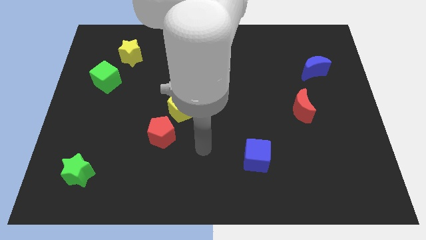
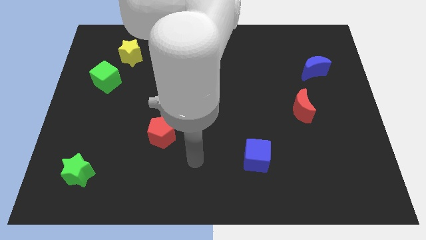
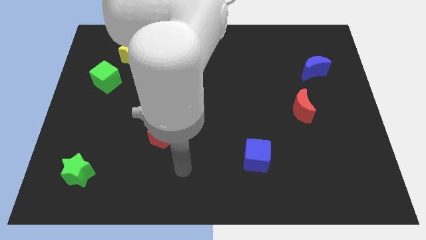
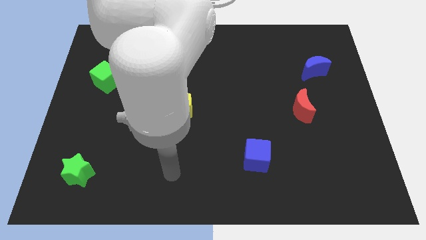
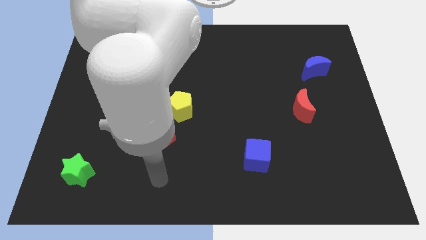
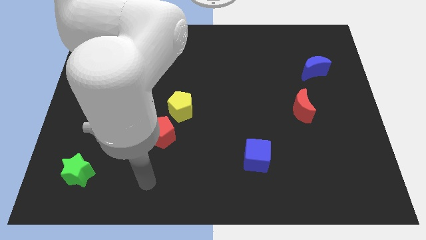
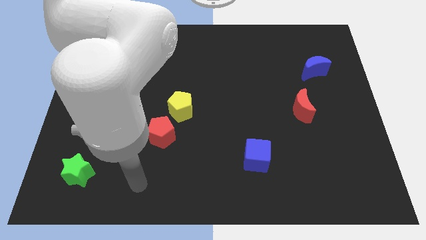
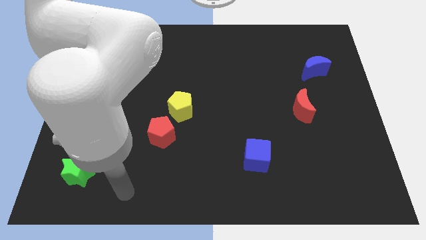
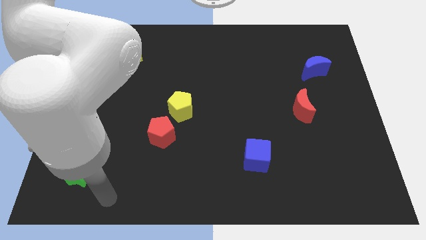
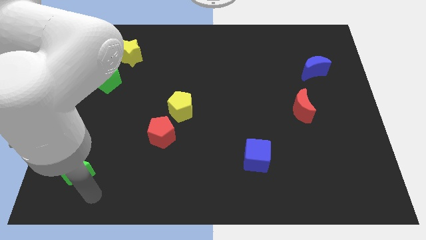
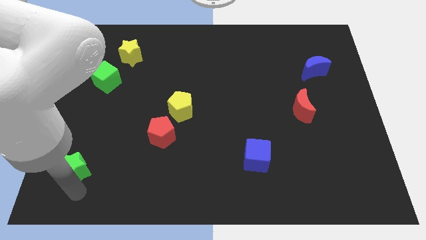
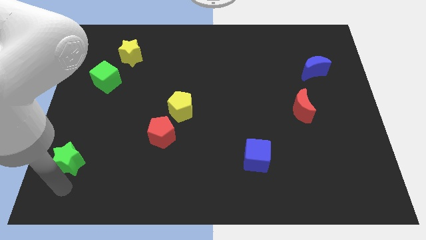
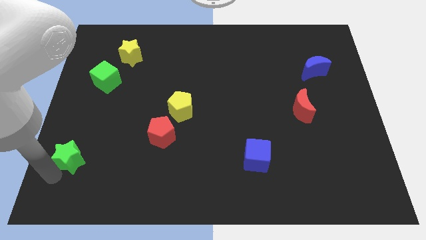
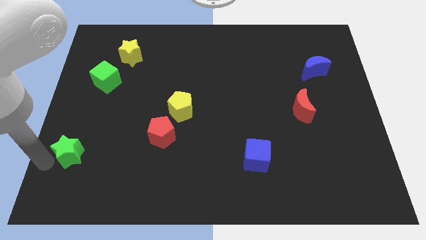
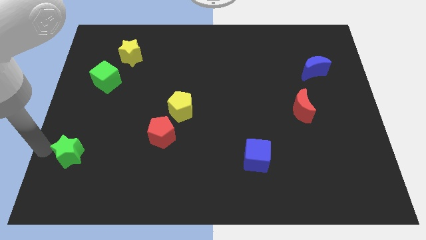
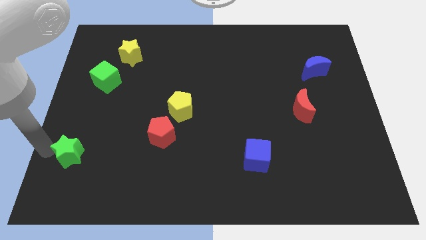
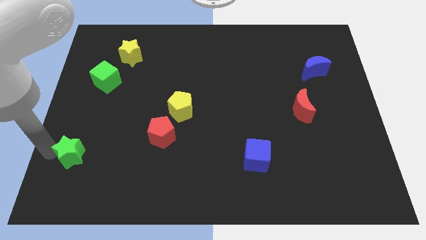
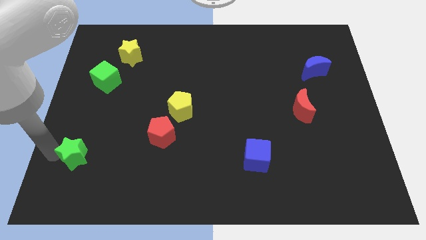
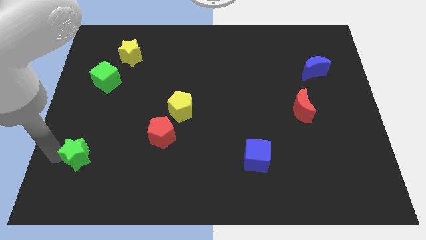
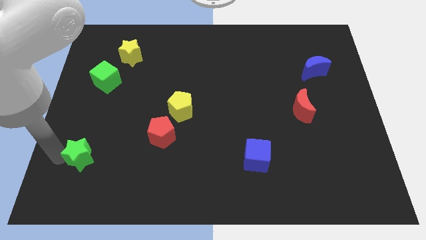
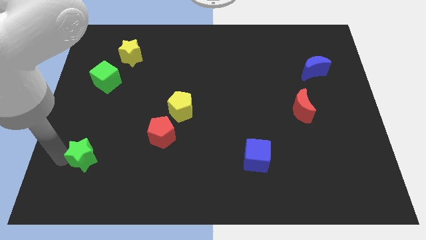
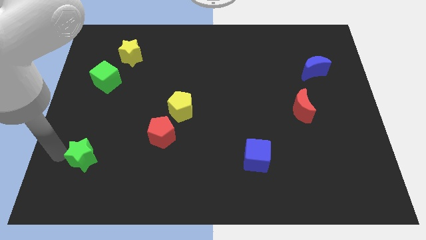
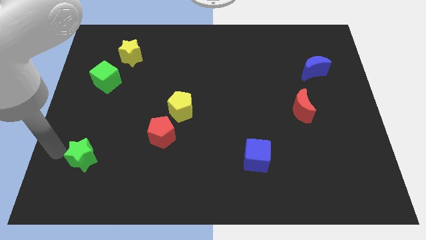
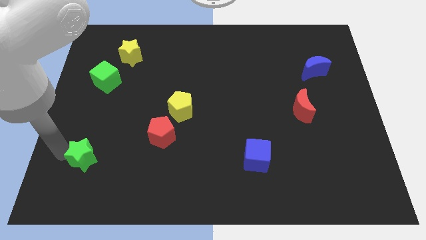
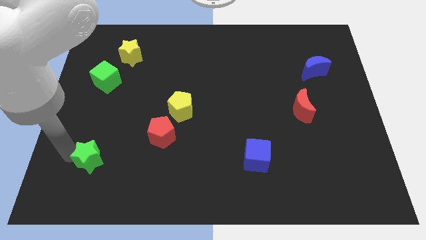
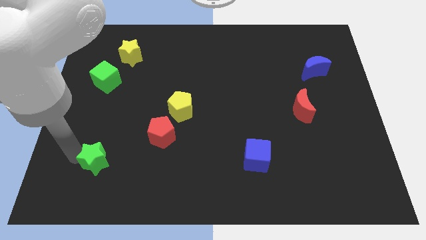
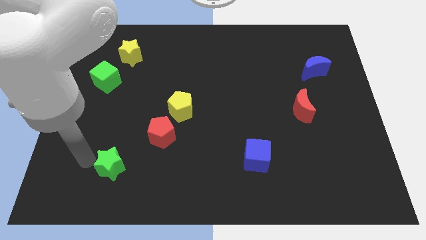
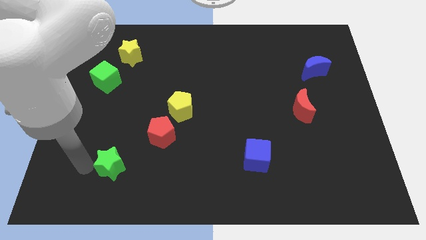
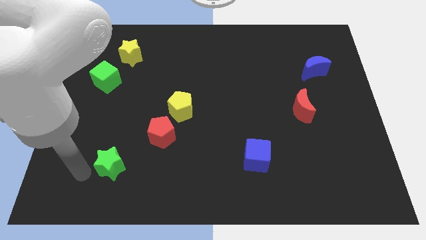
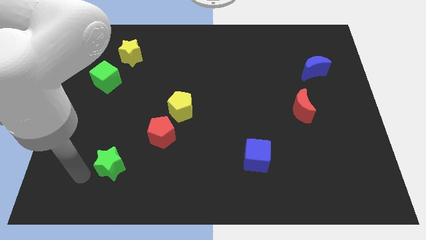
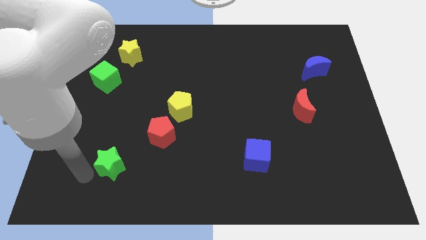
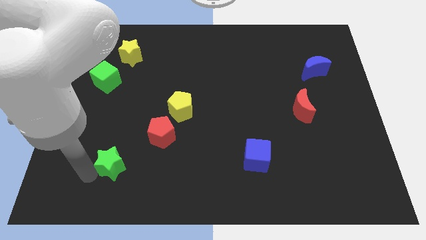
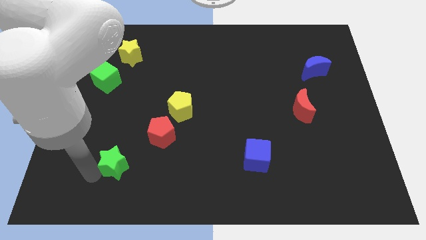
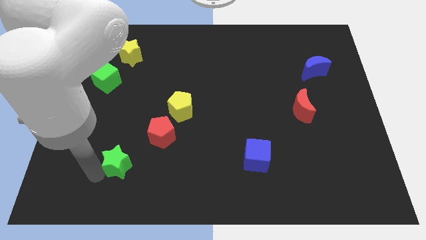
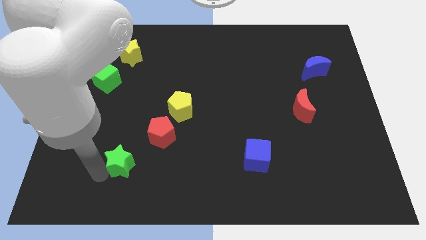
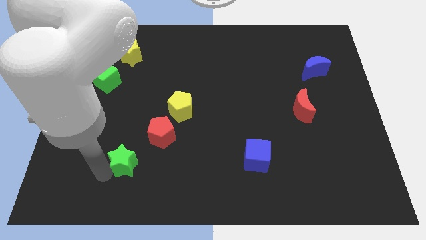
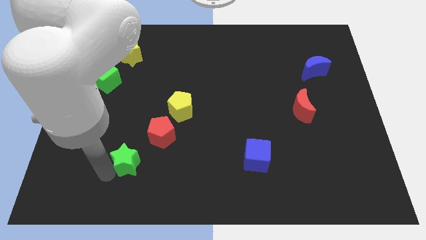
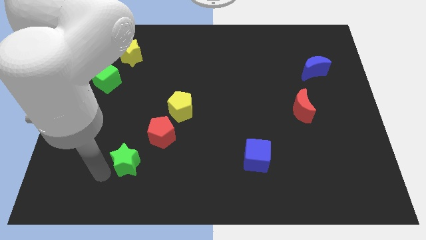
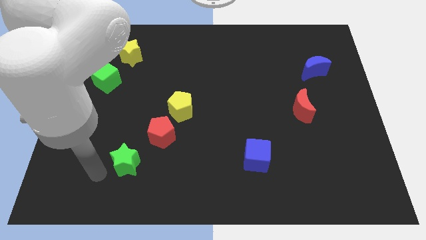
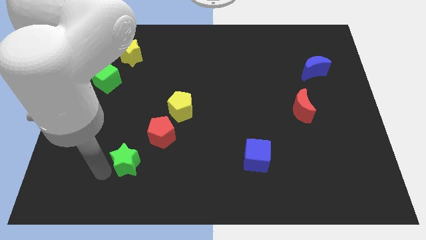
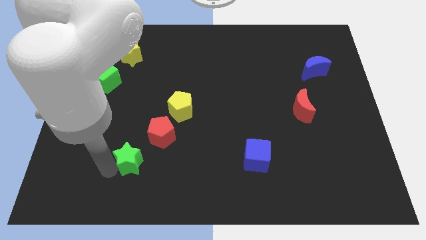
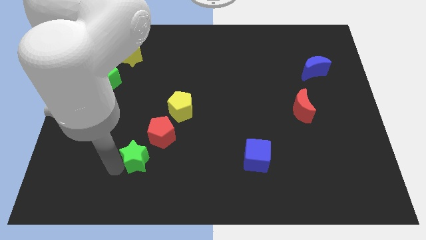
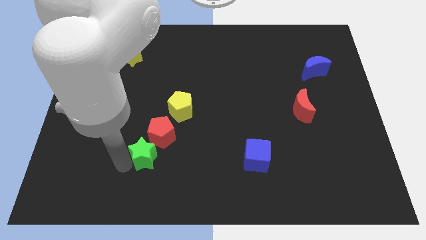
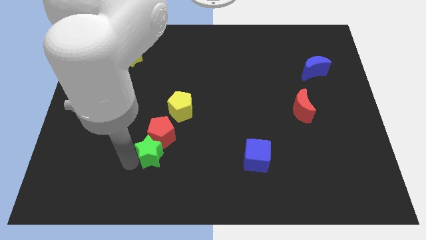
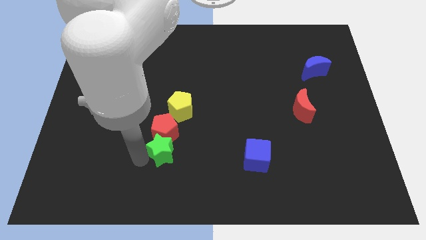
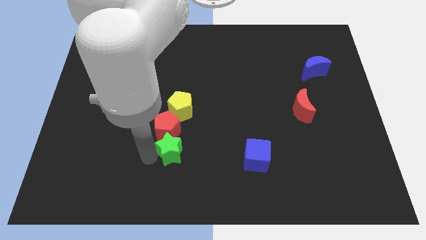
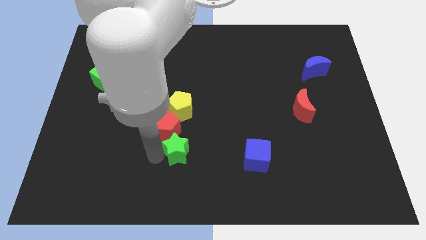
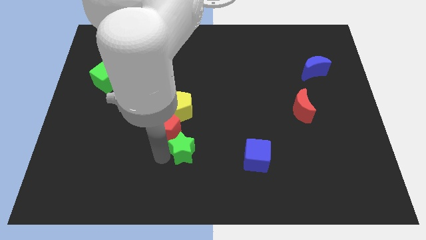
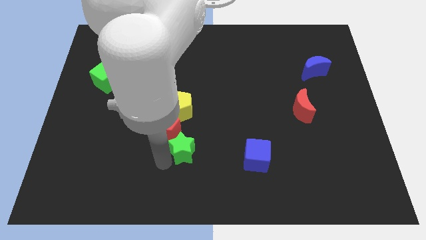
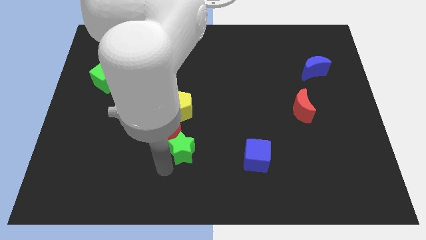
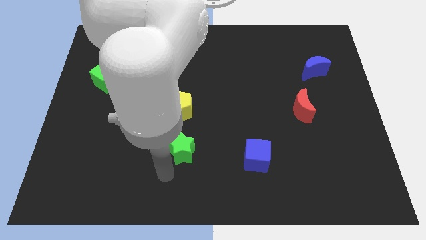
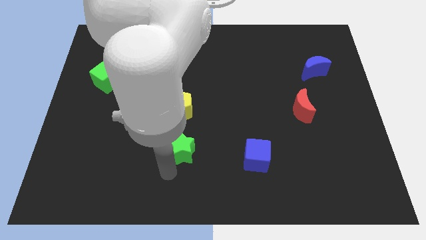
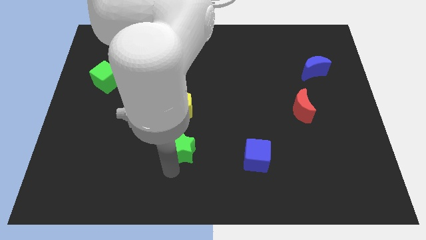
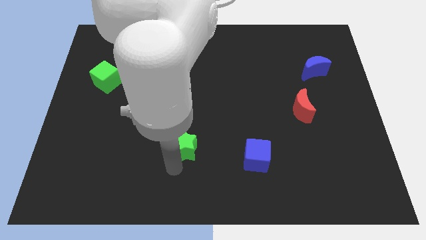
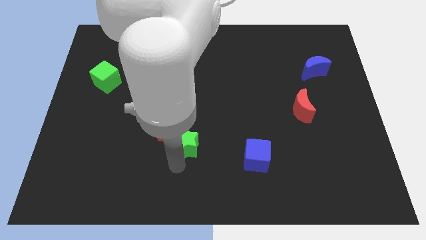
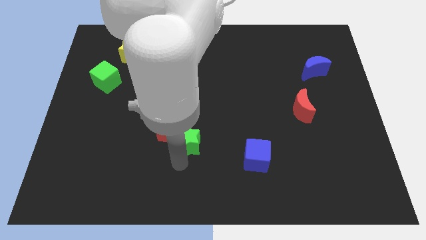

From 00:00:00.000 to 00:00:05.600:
put the green star diagonally down and to the right of the yellow pentagon

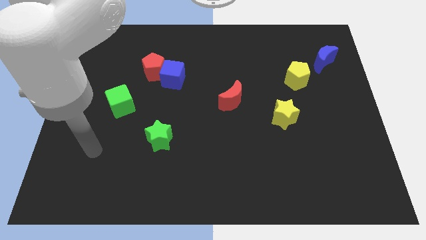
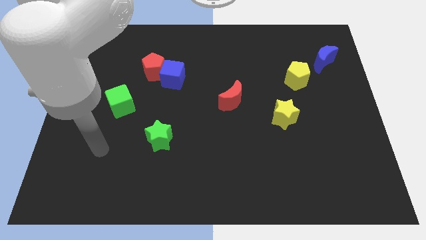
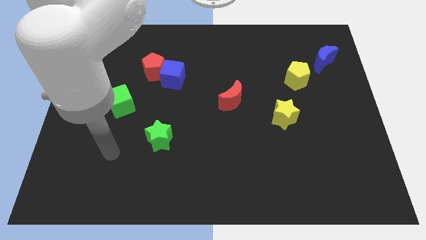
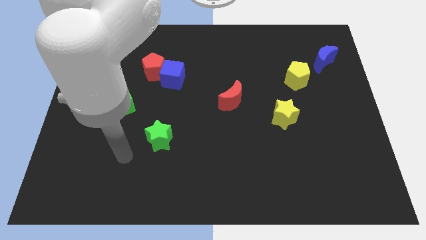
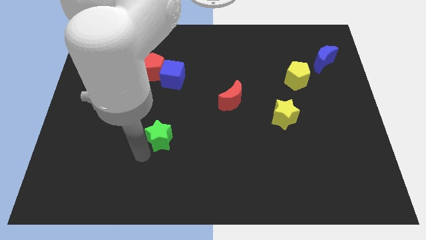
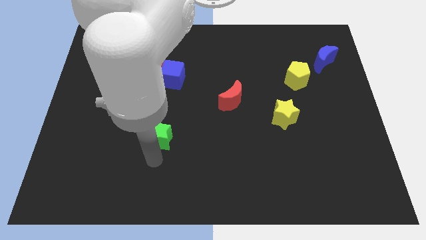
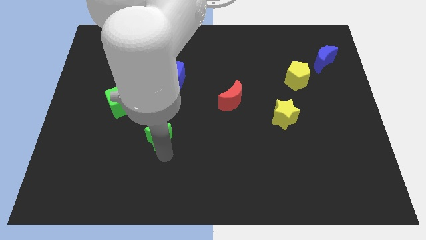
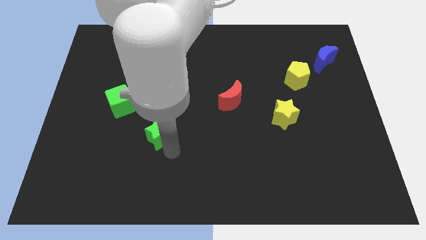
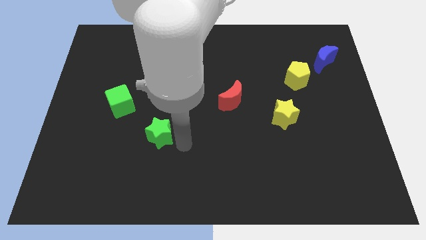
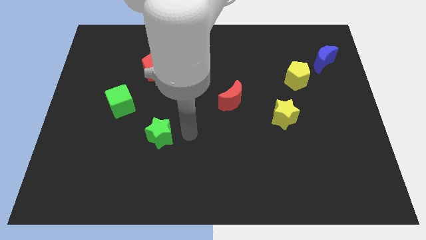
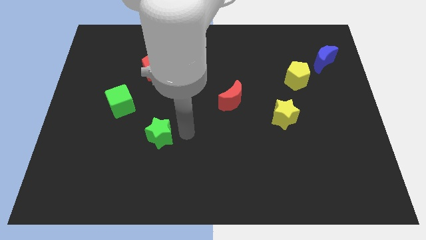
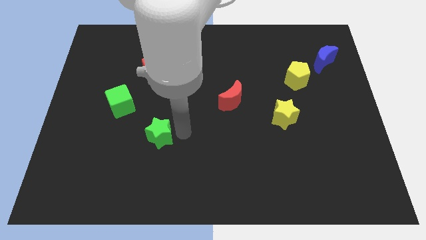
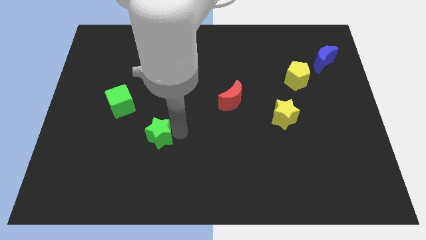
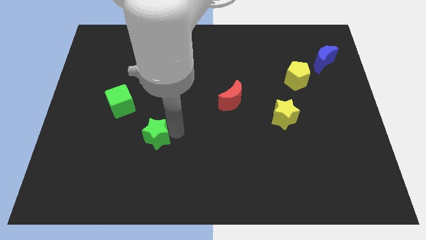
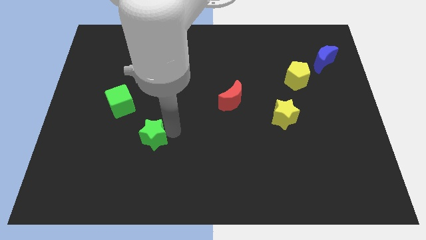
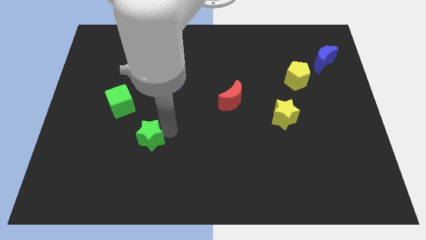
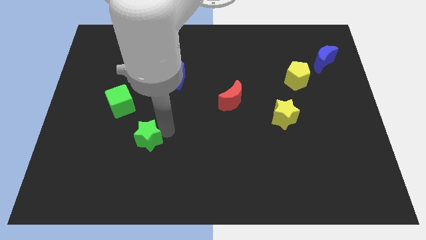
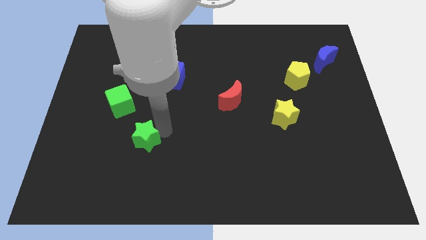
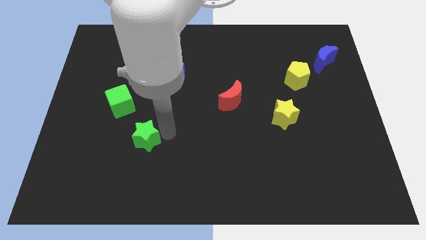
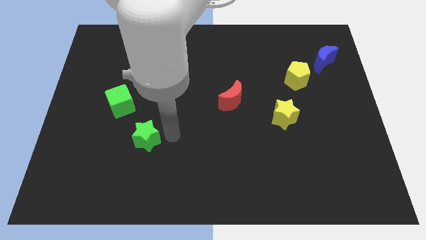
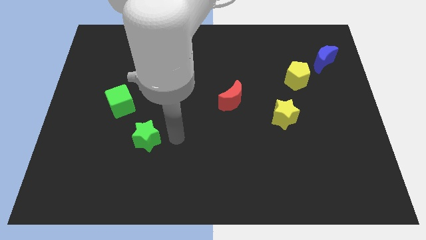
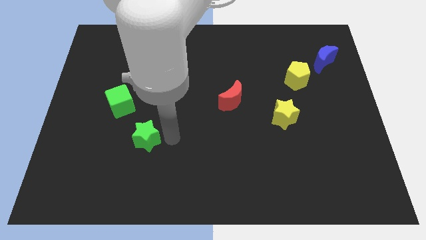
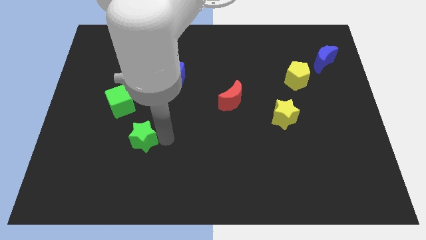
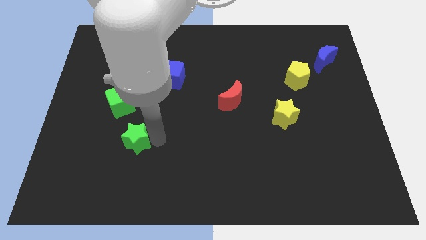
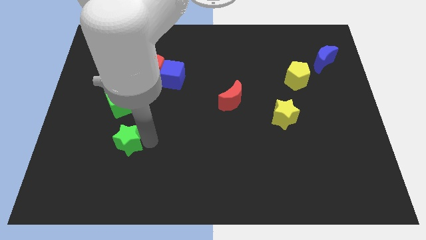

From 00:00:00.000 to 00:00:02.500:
put the green star to the bottom side of the green cube
